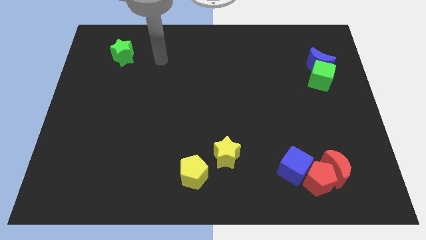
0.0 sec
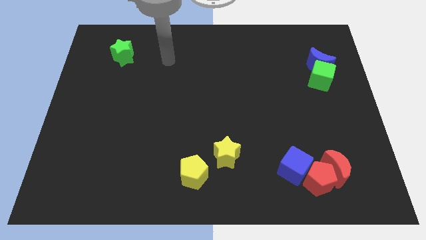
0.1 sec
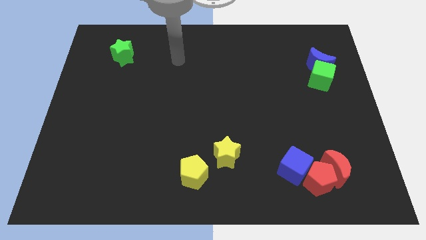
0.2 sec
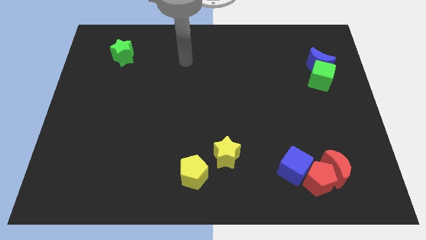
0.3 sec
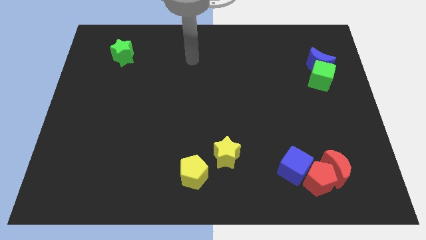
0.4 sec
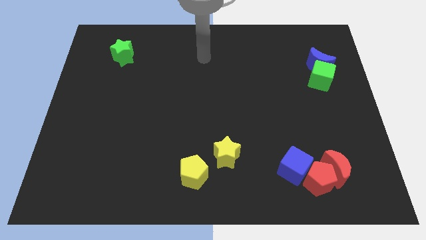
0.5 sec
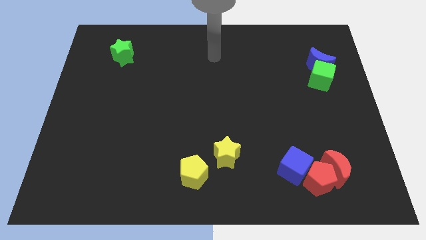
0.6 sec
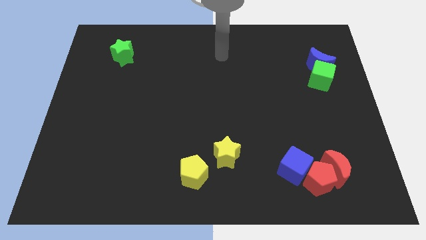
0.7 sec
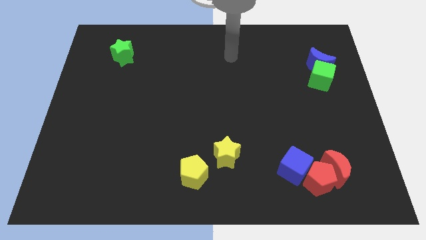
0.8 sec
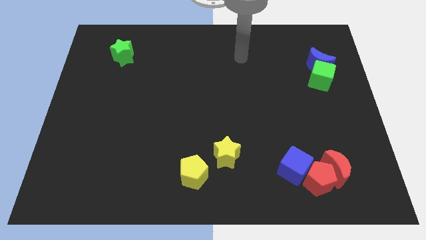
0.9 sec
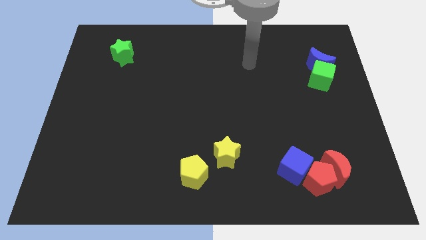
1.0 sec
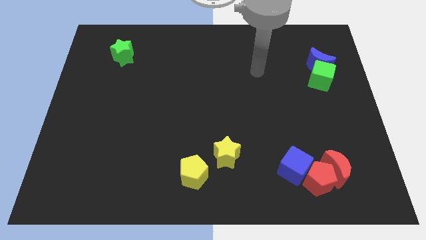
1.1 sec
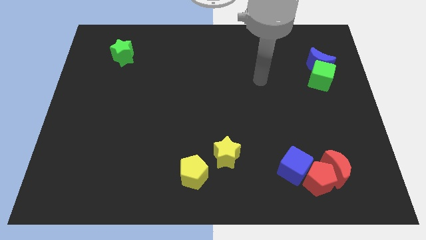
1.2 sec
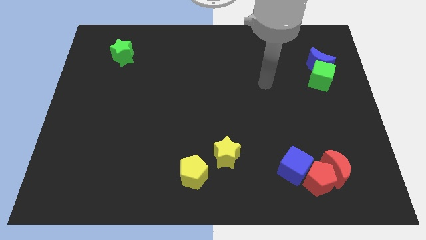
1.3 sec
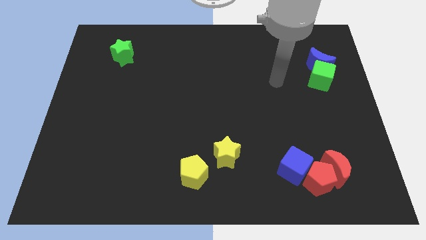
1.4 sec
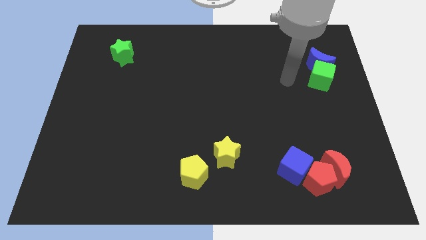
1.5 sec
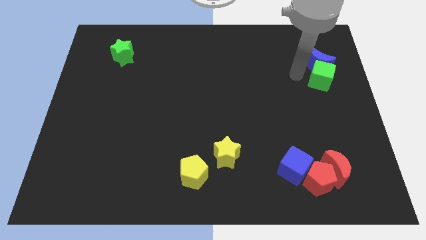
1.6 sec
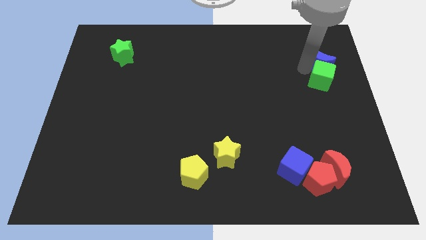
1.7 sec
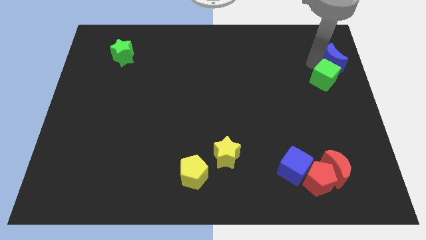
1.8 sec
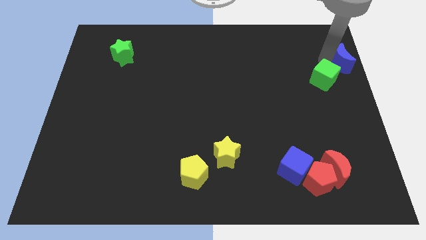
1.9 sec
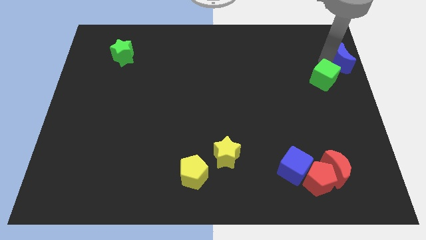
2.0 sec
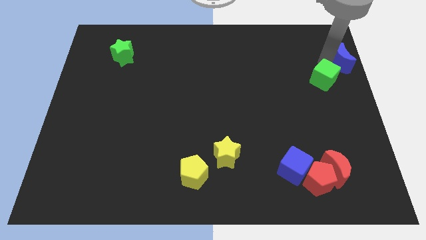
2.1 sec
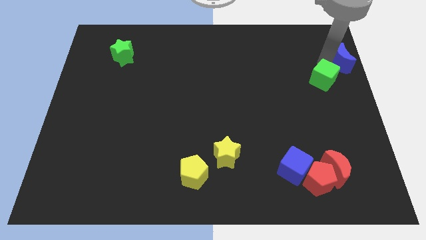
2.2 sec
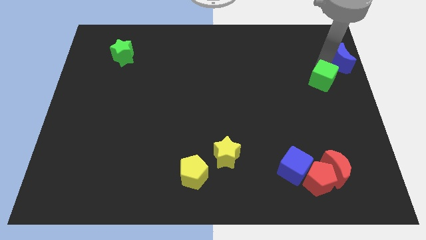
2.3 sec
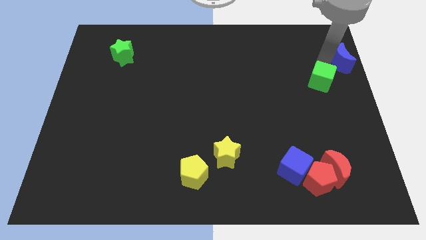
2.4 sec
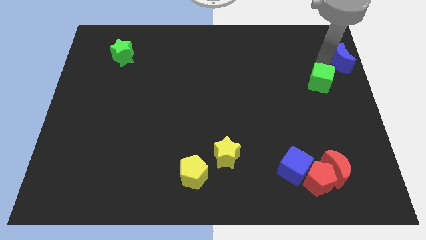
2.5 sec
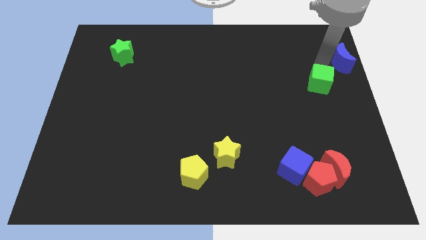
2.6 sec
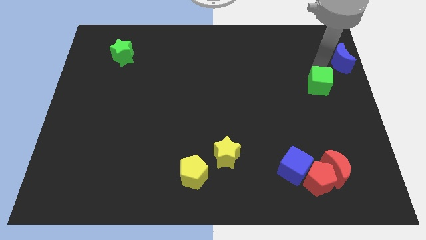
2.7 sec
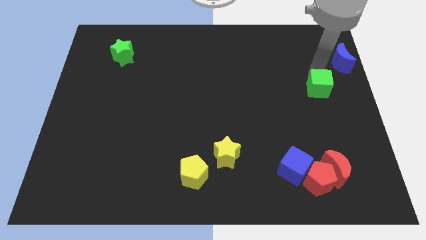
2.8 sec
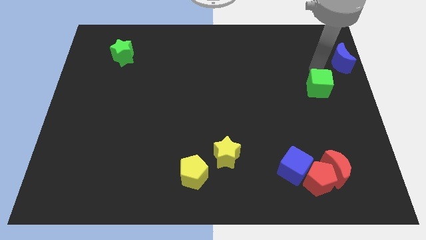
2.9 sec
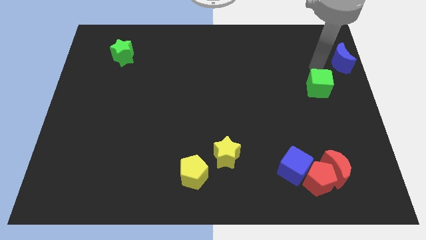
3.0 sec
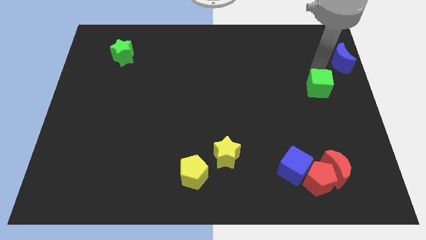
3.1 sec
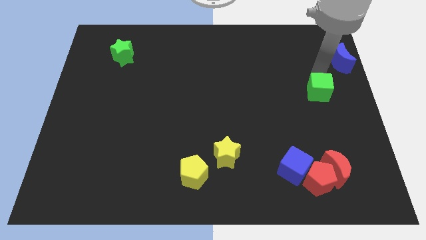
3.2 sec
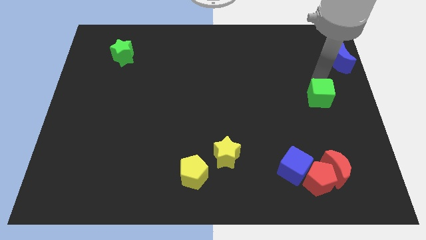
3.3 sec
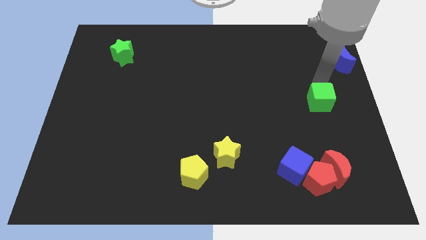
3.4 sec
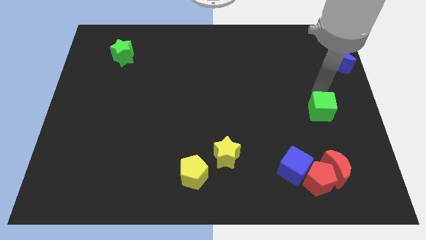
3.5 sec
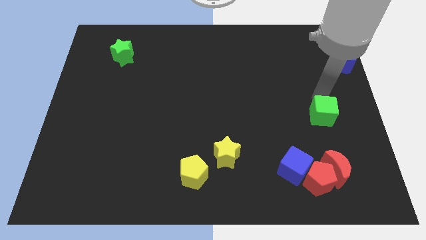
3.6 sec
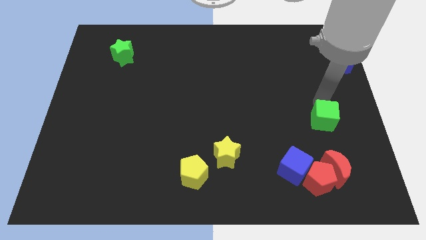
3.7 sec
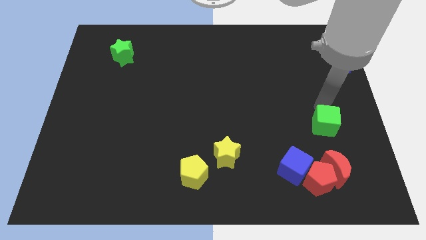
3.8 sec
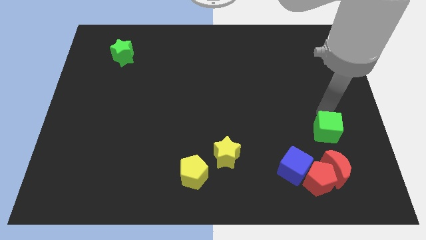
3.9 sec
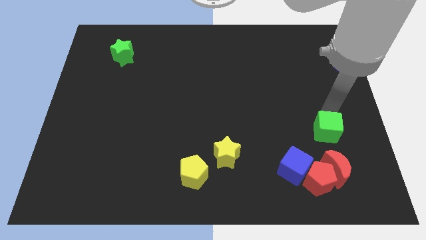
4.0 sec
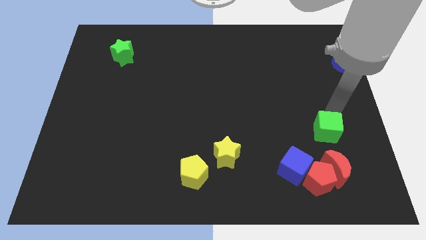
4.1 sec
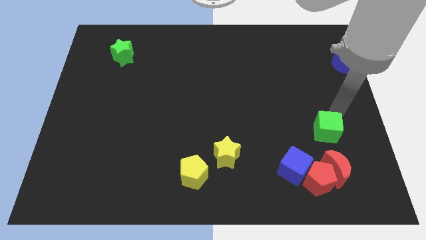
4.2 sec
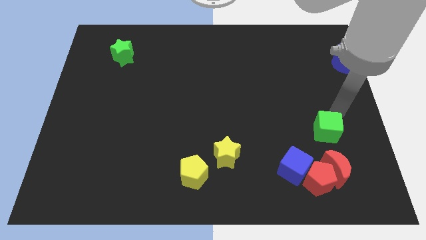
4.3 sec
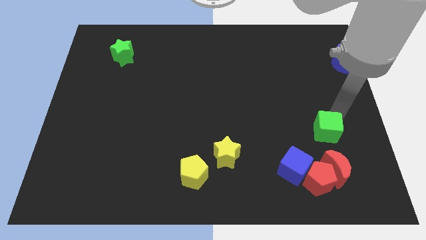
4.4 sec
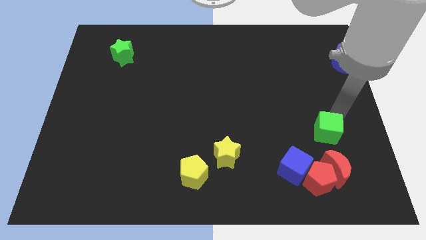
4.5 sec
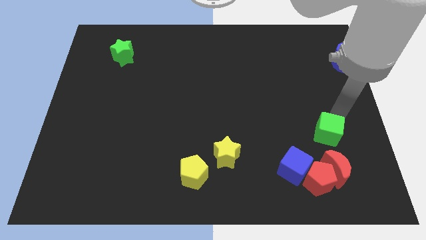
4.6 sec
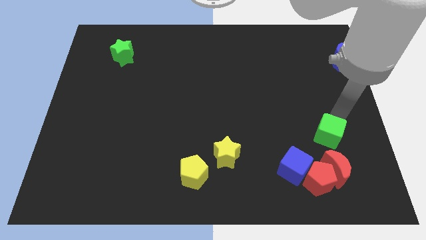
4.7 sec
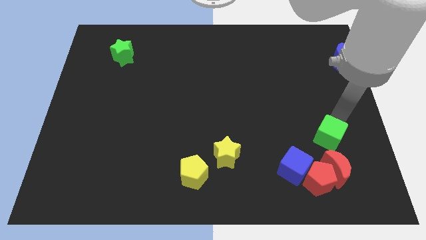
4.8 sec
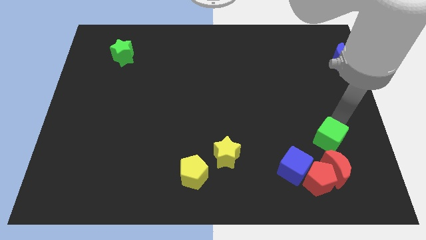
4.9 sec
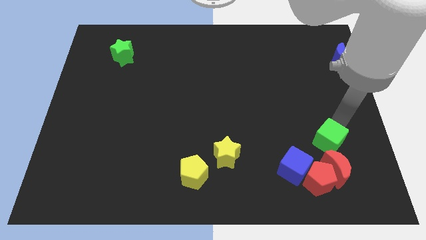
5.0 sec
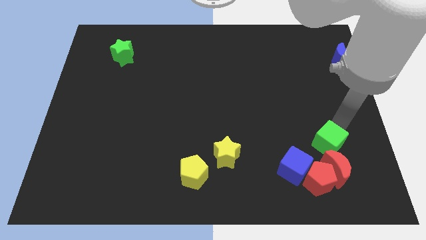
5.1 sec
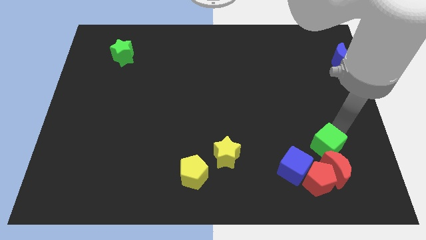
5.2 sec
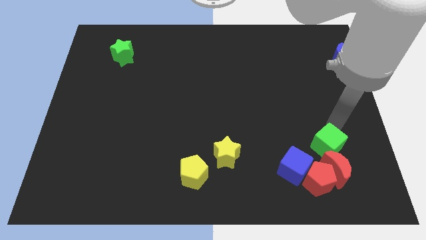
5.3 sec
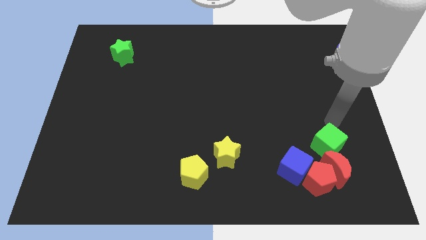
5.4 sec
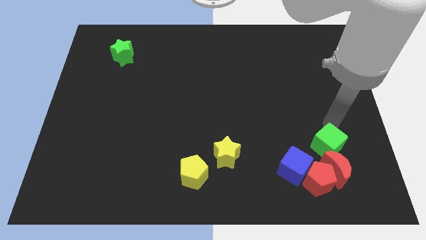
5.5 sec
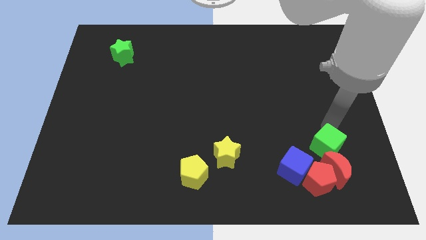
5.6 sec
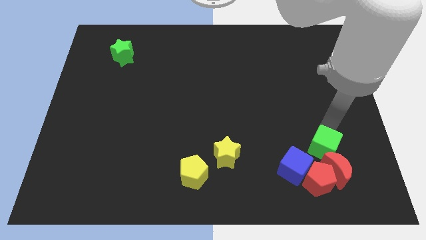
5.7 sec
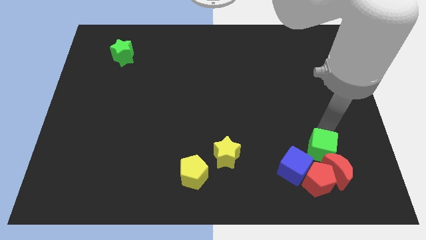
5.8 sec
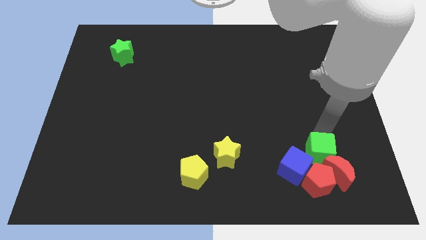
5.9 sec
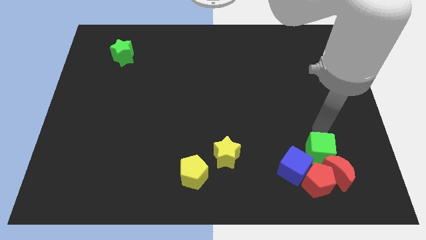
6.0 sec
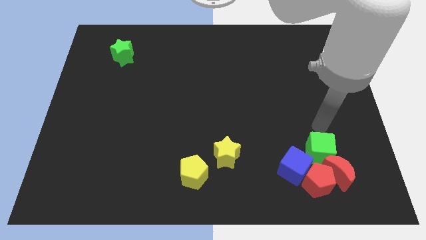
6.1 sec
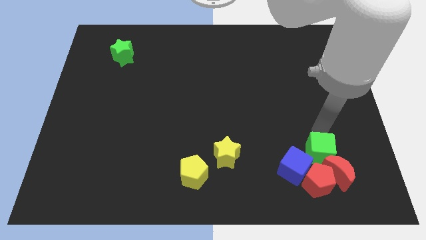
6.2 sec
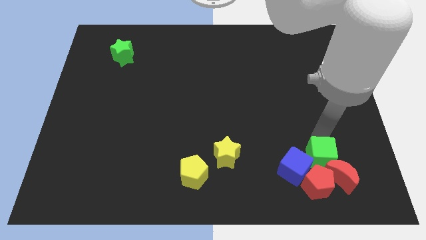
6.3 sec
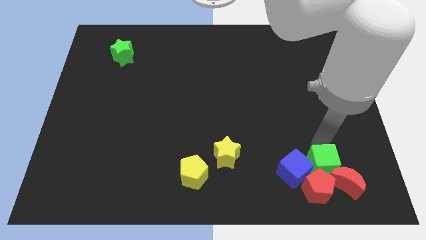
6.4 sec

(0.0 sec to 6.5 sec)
move the green cube towards the red pentagon

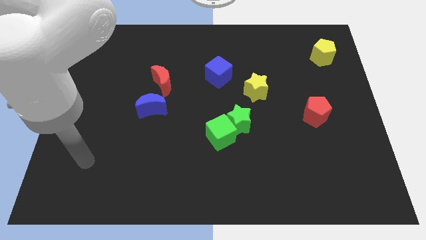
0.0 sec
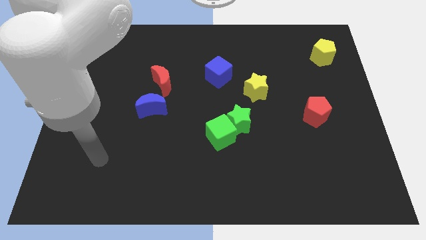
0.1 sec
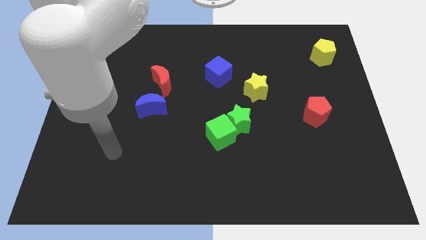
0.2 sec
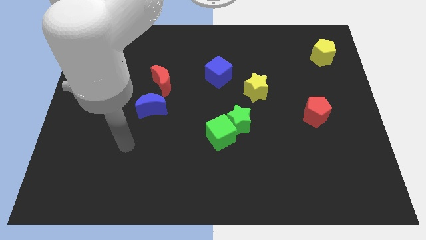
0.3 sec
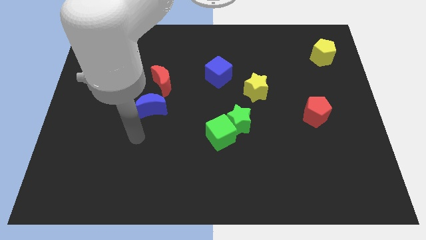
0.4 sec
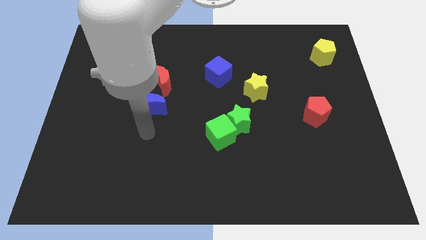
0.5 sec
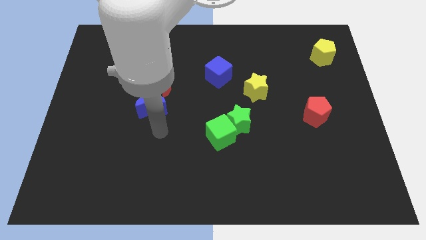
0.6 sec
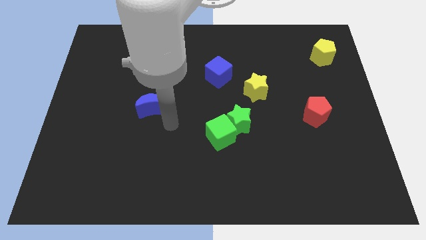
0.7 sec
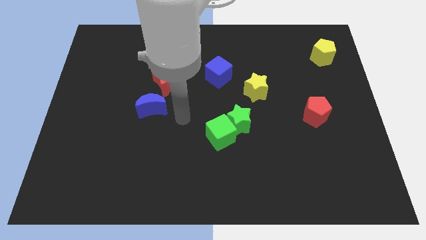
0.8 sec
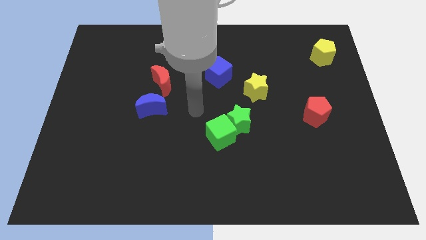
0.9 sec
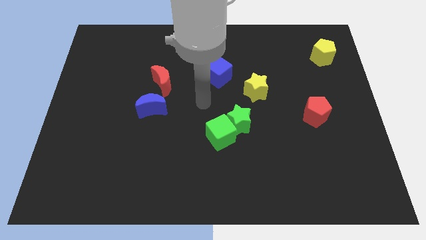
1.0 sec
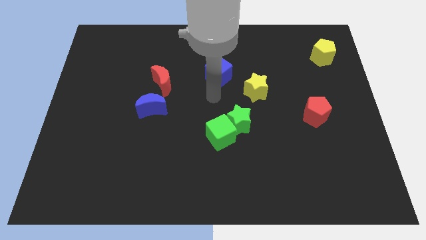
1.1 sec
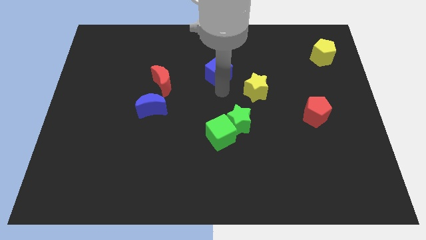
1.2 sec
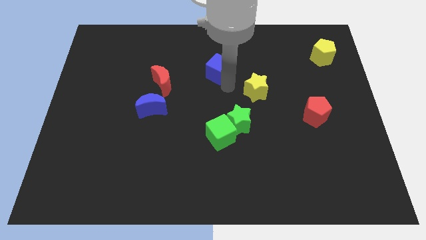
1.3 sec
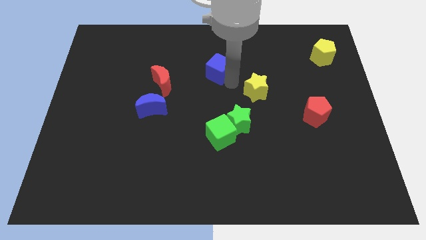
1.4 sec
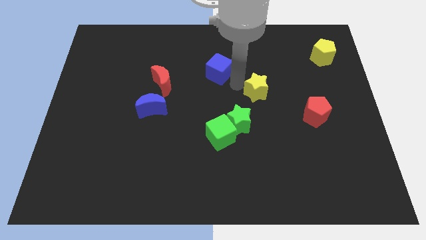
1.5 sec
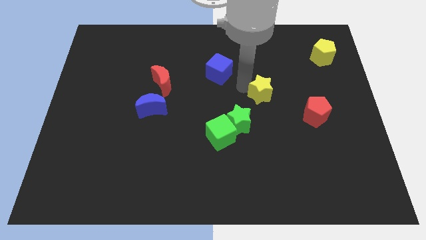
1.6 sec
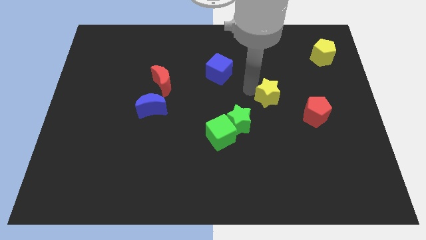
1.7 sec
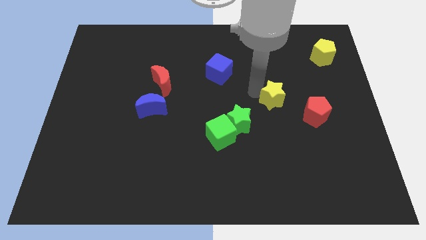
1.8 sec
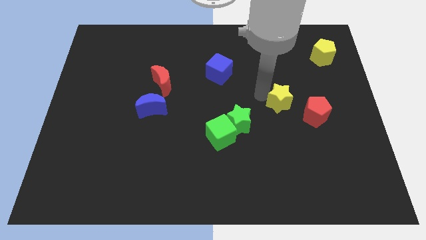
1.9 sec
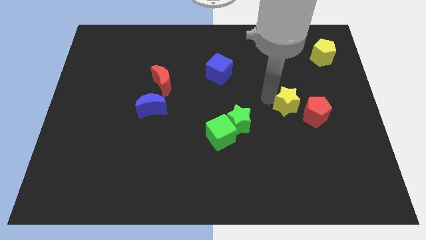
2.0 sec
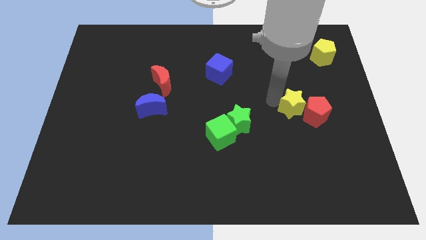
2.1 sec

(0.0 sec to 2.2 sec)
slide the yellow star next to the red pentagon
